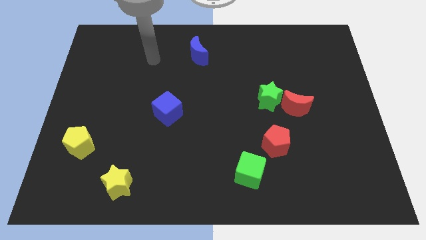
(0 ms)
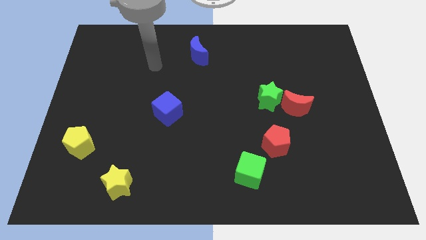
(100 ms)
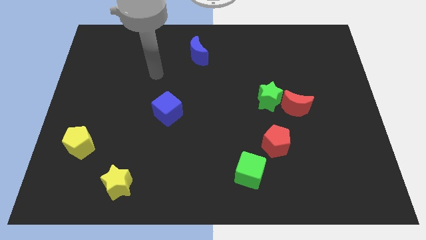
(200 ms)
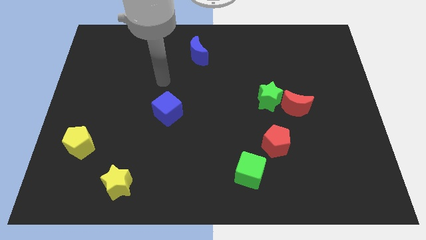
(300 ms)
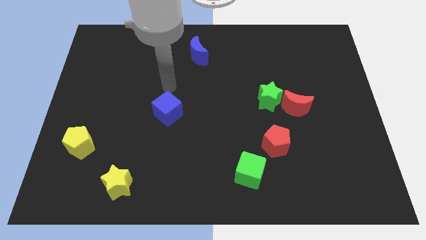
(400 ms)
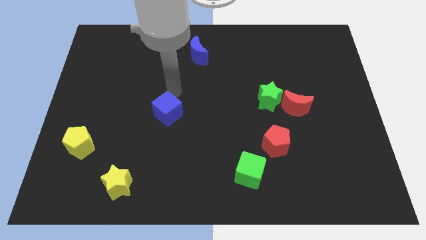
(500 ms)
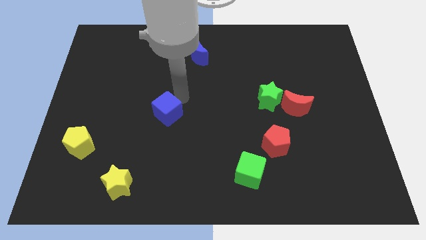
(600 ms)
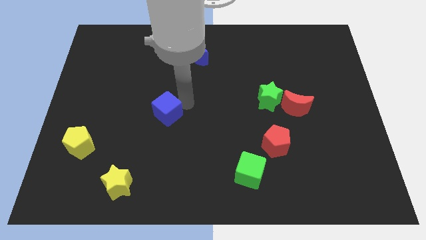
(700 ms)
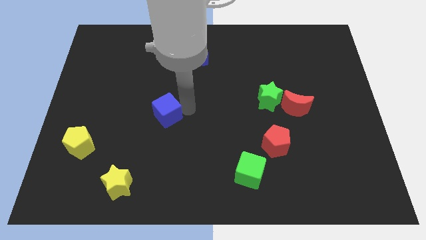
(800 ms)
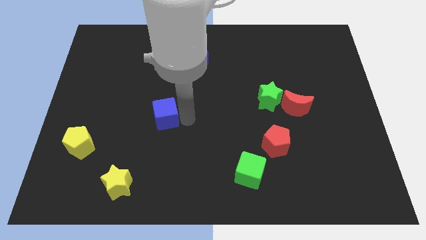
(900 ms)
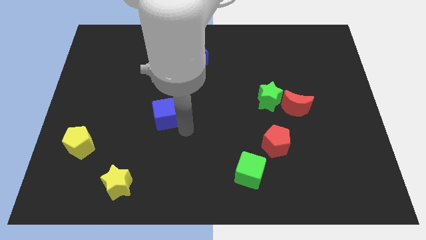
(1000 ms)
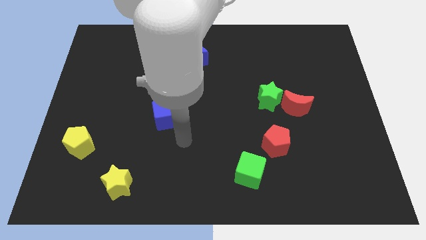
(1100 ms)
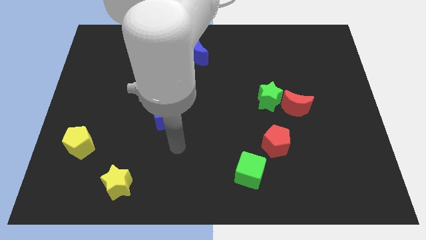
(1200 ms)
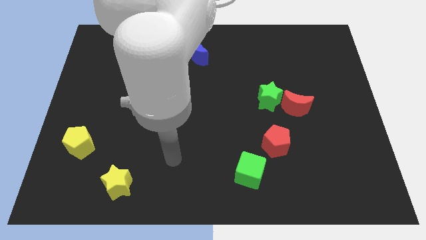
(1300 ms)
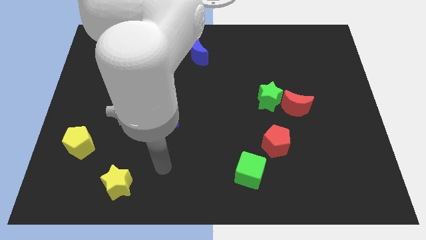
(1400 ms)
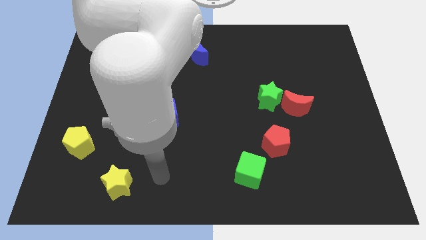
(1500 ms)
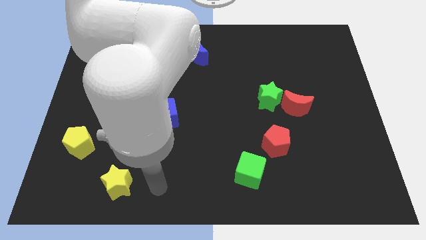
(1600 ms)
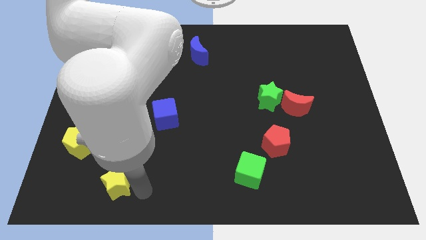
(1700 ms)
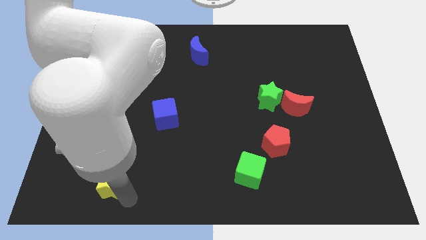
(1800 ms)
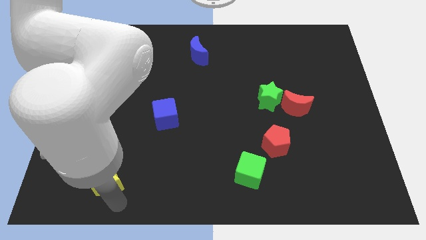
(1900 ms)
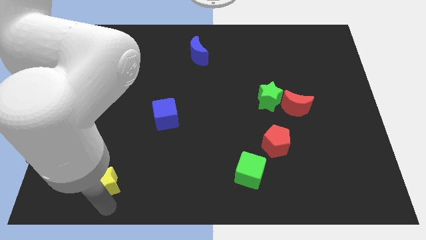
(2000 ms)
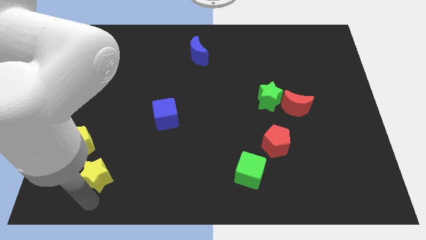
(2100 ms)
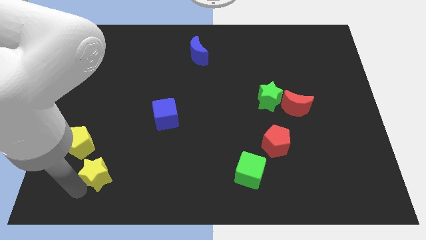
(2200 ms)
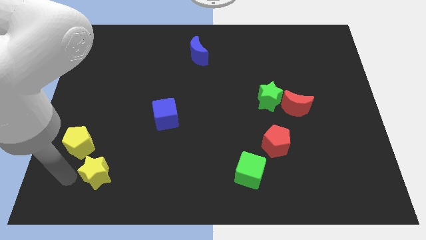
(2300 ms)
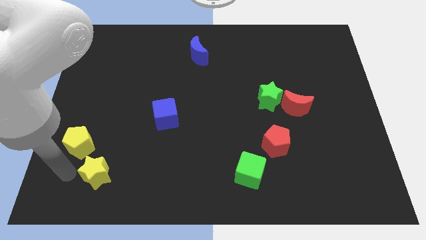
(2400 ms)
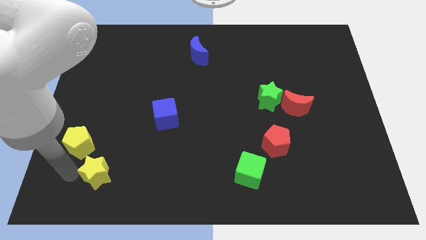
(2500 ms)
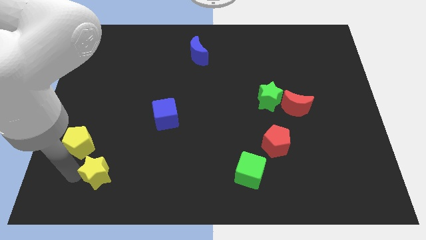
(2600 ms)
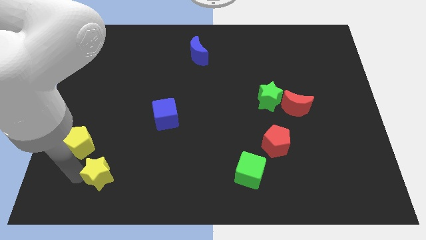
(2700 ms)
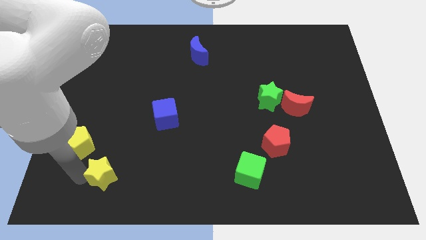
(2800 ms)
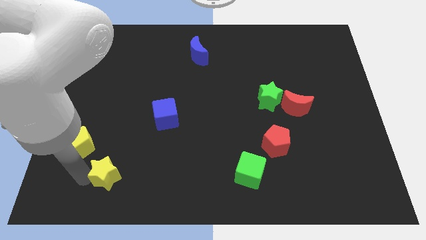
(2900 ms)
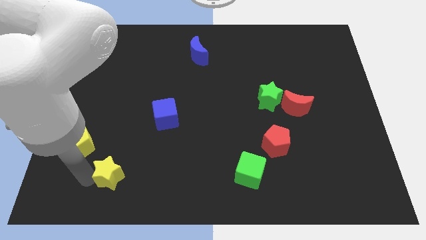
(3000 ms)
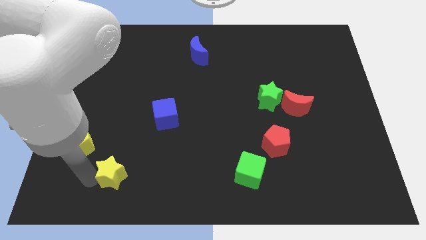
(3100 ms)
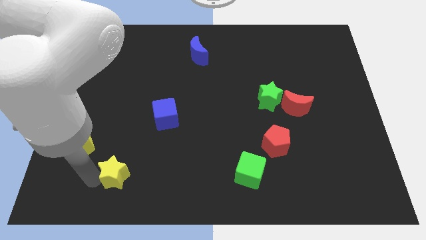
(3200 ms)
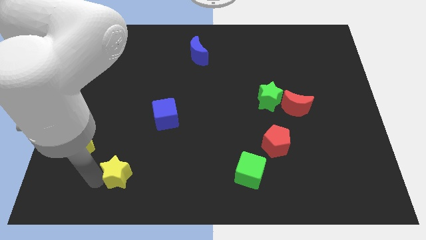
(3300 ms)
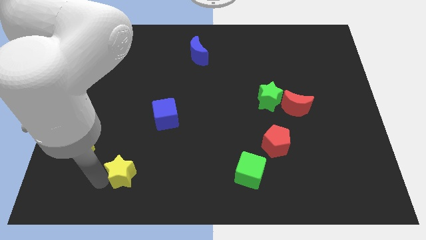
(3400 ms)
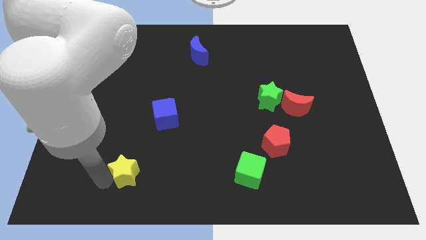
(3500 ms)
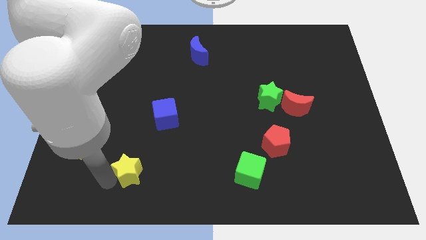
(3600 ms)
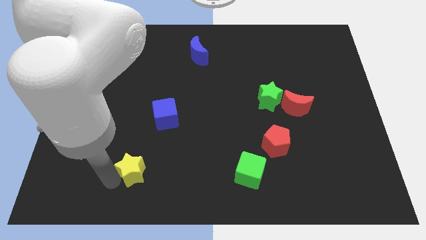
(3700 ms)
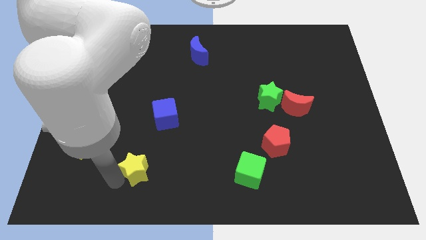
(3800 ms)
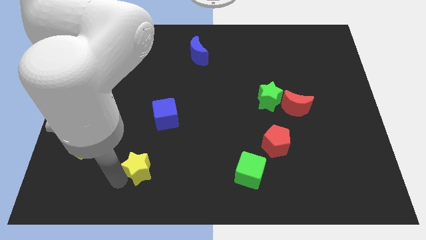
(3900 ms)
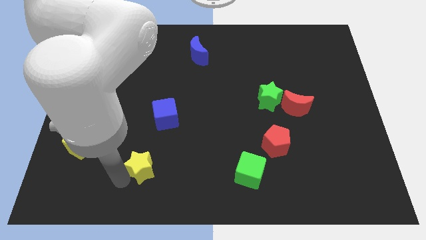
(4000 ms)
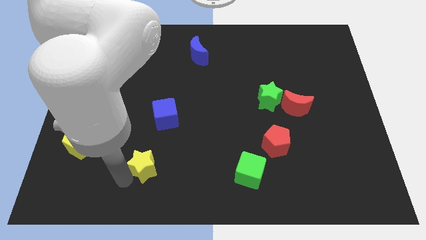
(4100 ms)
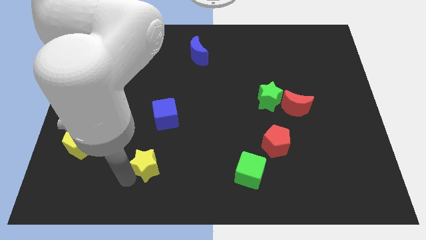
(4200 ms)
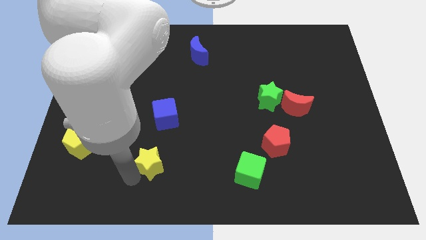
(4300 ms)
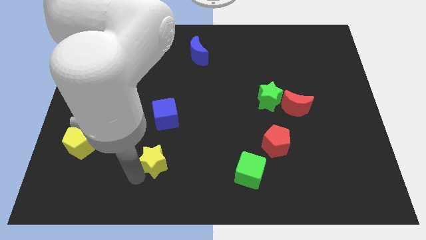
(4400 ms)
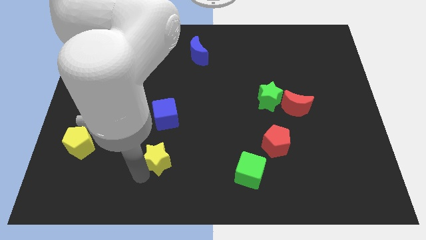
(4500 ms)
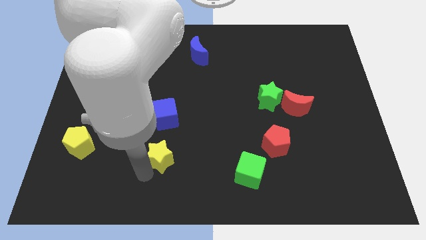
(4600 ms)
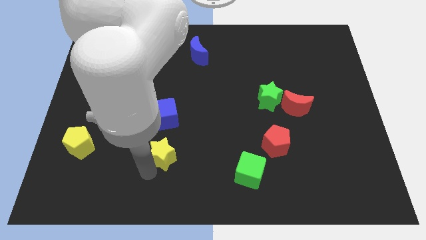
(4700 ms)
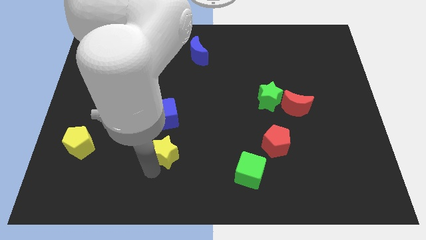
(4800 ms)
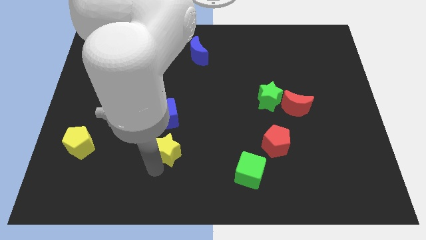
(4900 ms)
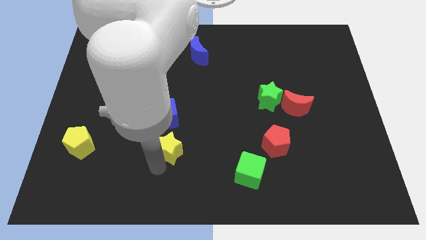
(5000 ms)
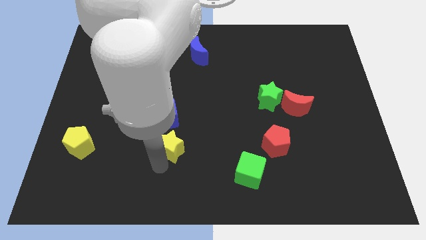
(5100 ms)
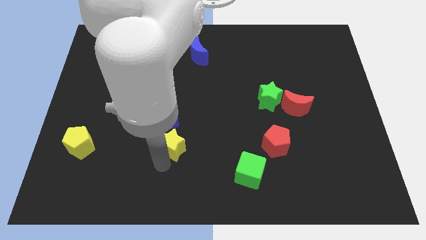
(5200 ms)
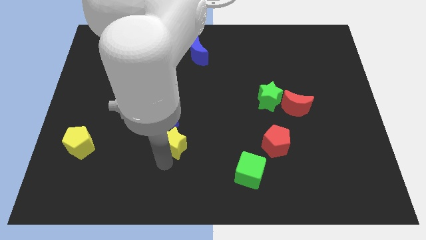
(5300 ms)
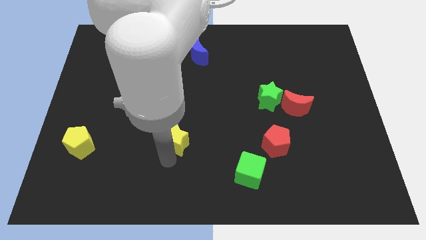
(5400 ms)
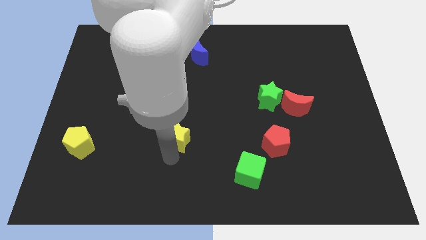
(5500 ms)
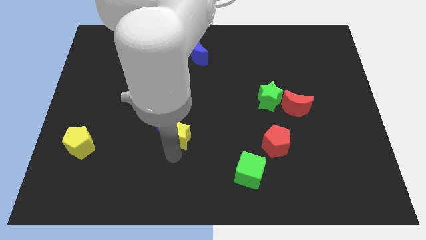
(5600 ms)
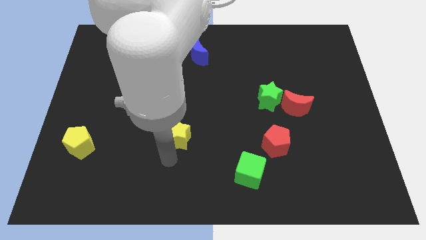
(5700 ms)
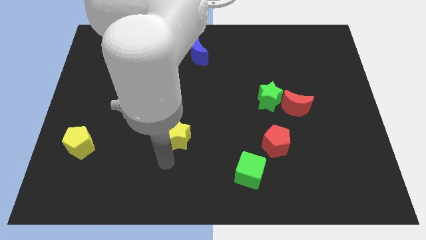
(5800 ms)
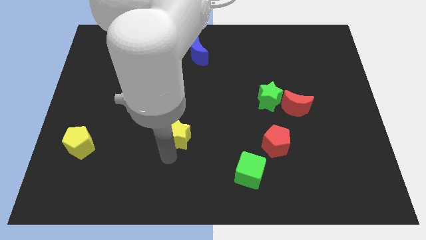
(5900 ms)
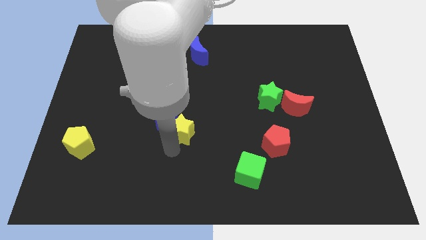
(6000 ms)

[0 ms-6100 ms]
slide the yellow star to the middle of the board

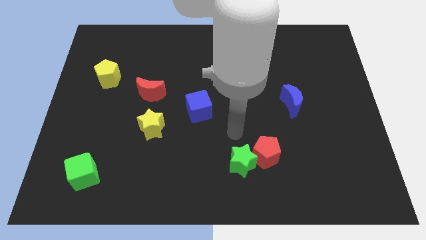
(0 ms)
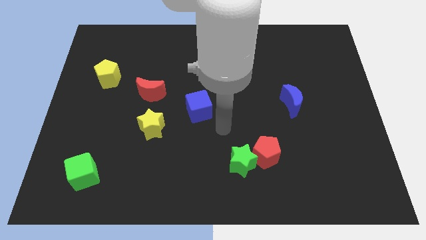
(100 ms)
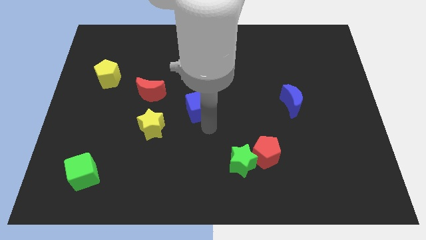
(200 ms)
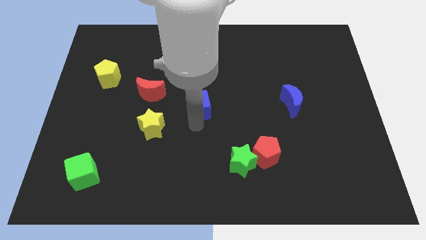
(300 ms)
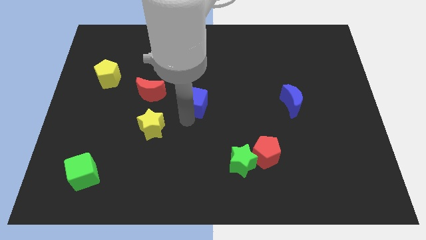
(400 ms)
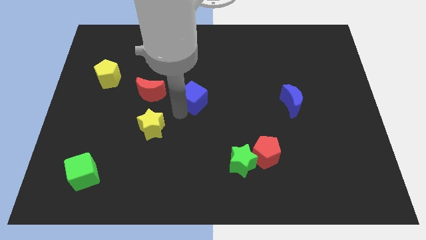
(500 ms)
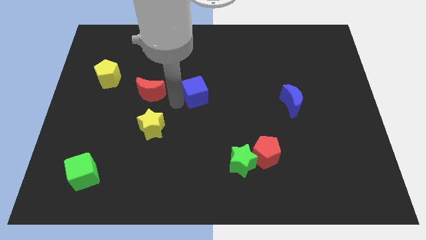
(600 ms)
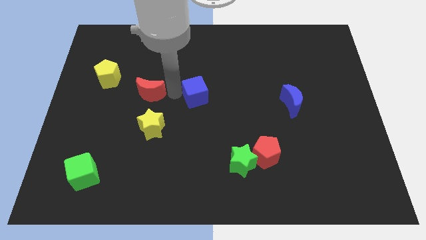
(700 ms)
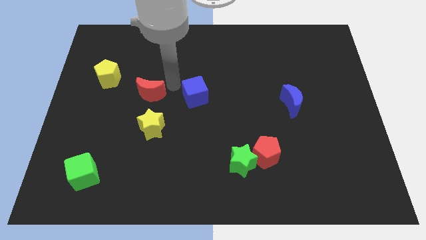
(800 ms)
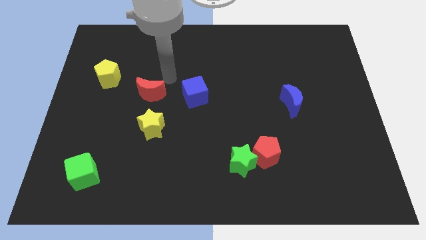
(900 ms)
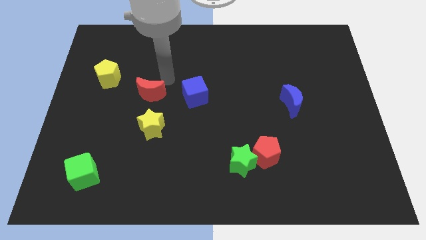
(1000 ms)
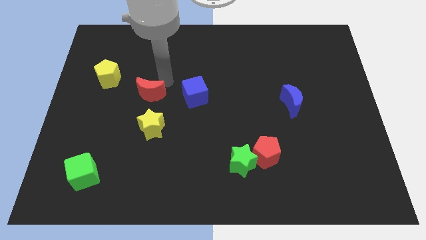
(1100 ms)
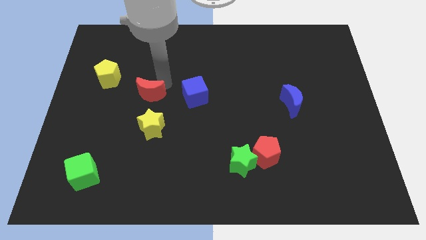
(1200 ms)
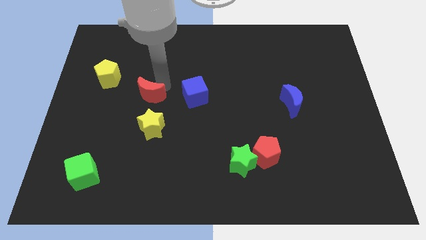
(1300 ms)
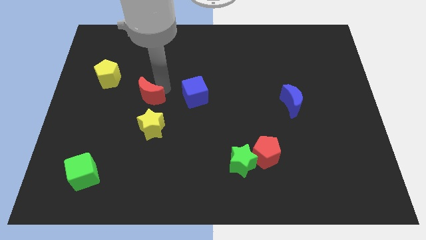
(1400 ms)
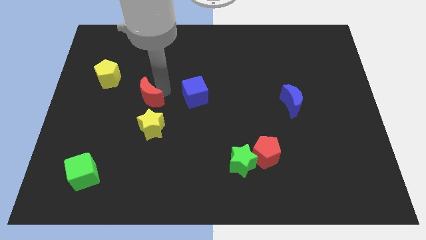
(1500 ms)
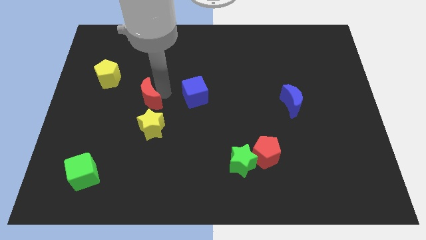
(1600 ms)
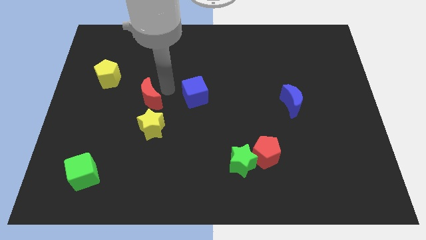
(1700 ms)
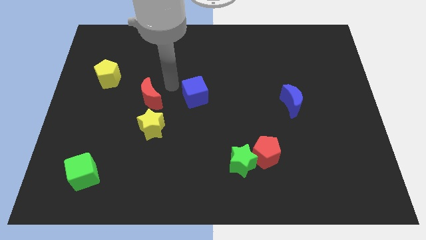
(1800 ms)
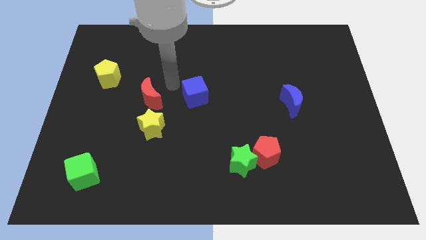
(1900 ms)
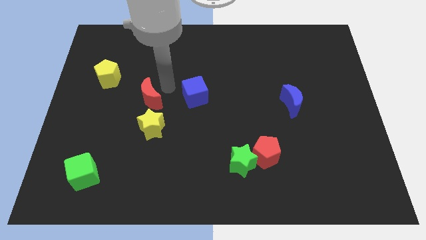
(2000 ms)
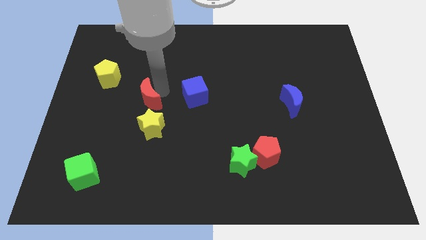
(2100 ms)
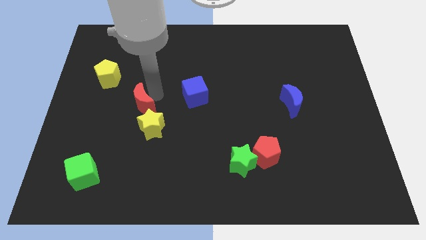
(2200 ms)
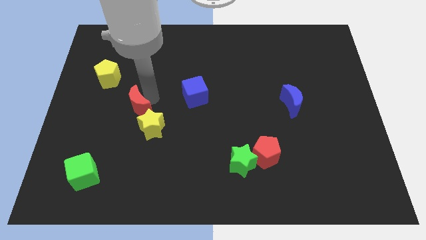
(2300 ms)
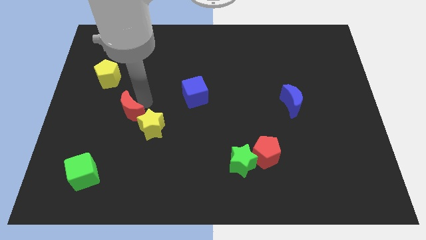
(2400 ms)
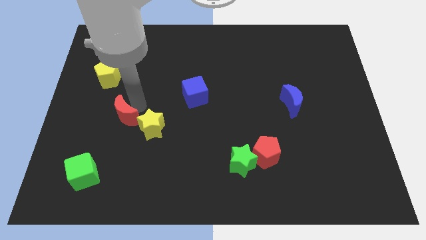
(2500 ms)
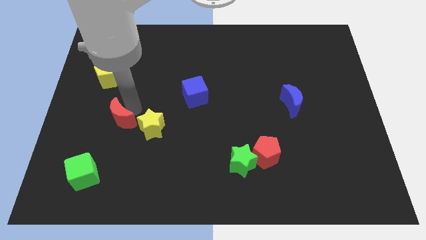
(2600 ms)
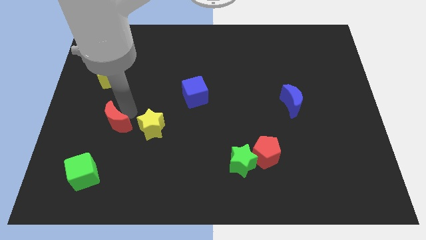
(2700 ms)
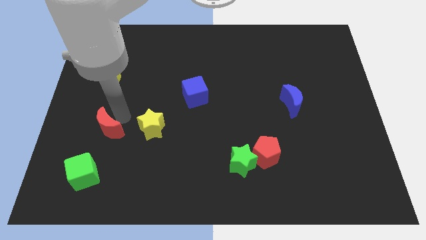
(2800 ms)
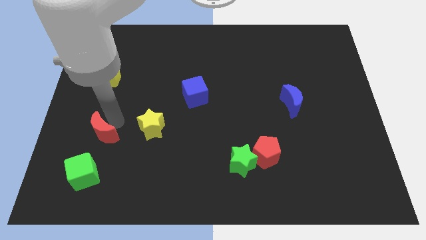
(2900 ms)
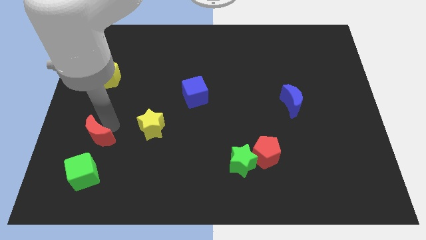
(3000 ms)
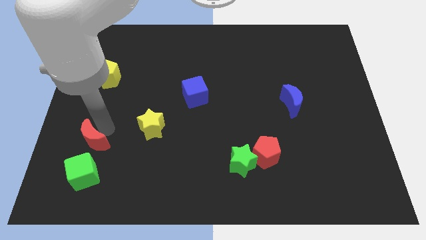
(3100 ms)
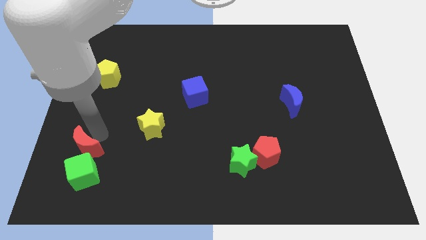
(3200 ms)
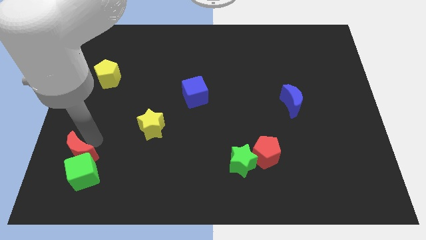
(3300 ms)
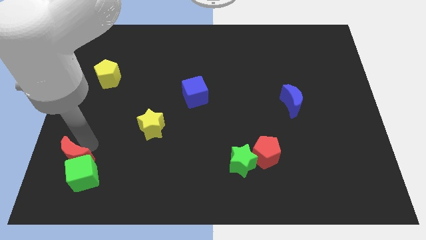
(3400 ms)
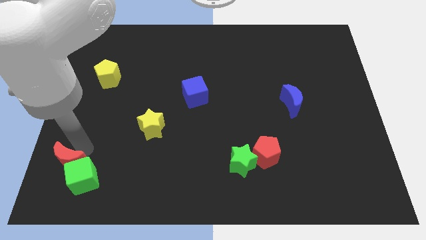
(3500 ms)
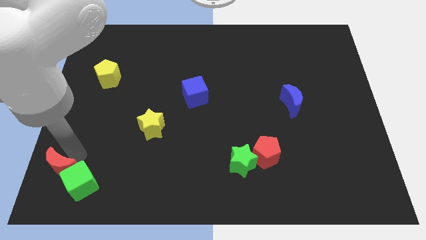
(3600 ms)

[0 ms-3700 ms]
move the red moon to the lower left corner
